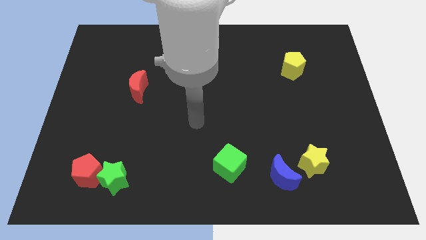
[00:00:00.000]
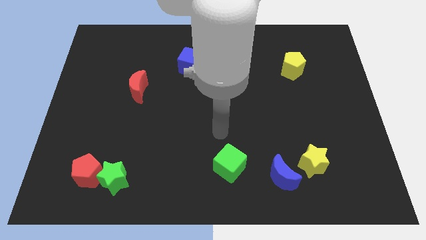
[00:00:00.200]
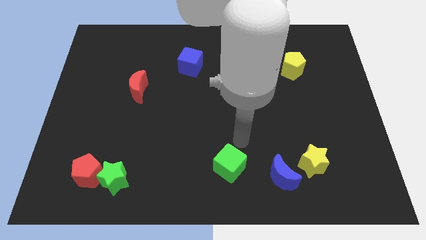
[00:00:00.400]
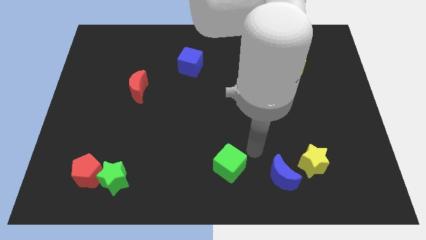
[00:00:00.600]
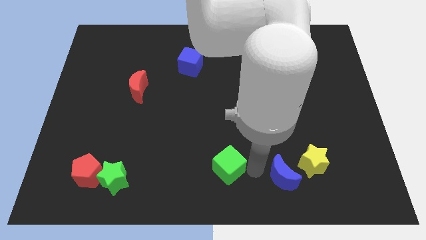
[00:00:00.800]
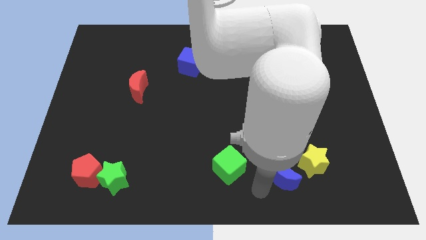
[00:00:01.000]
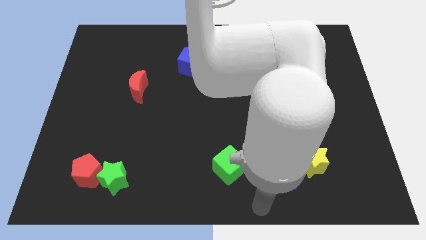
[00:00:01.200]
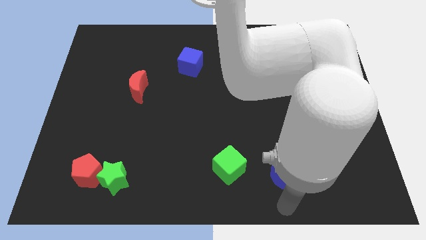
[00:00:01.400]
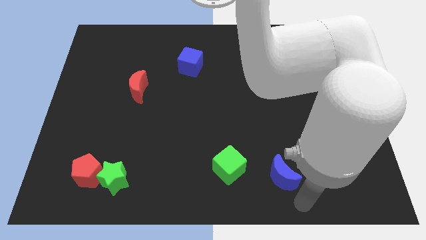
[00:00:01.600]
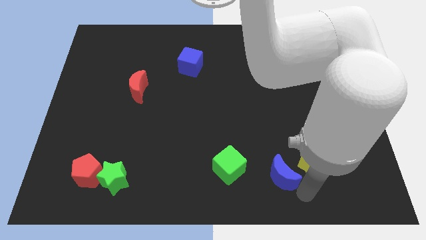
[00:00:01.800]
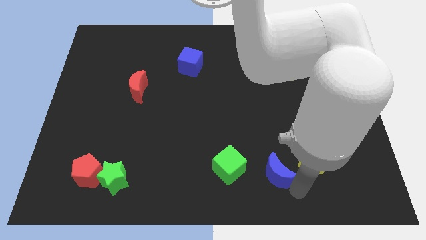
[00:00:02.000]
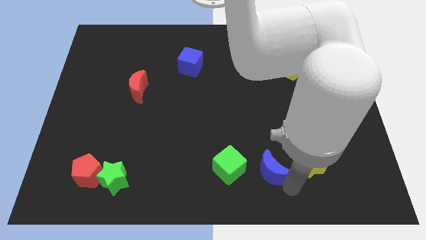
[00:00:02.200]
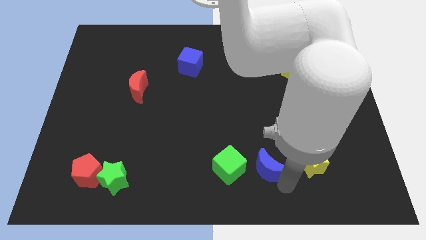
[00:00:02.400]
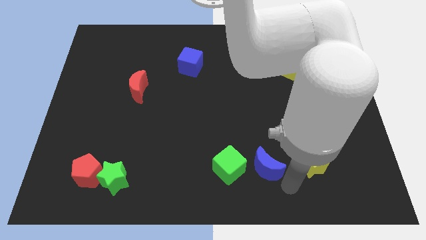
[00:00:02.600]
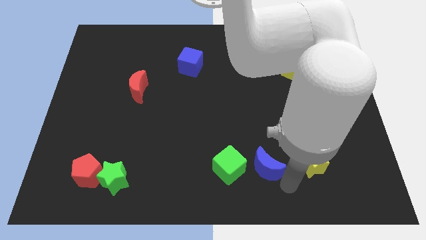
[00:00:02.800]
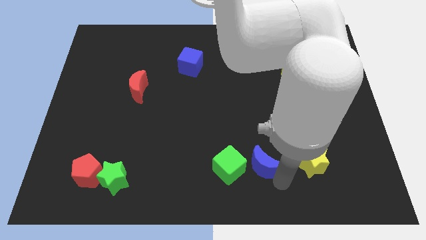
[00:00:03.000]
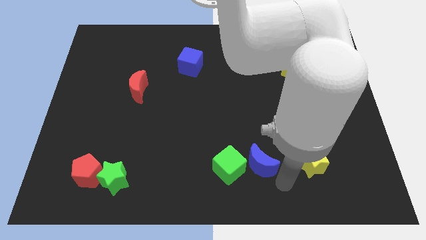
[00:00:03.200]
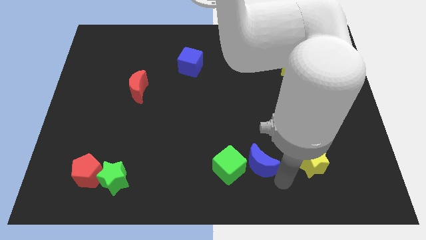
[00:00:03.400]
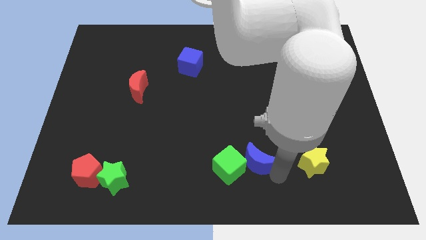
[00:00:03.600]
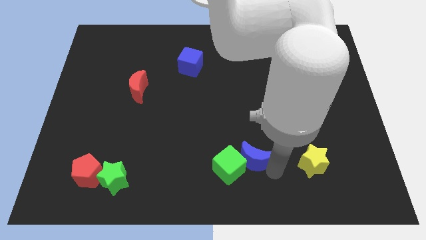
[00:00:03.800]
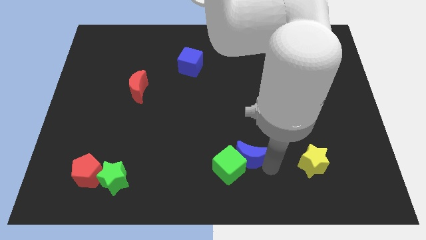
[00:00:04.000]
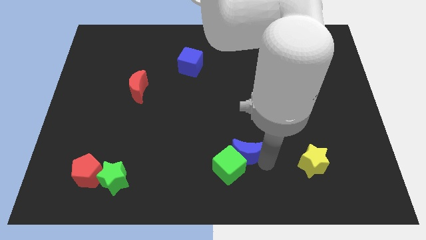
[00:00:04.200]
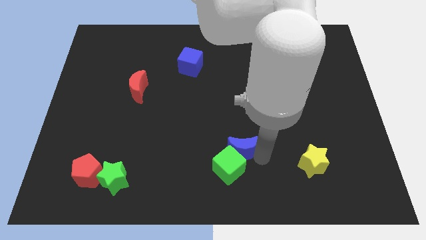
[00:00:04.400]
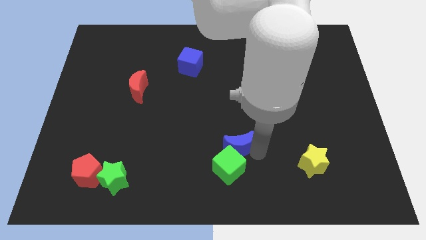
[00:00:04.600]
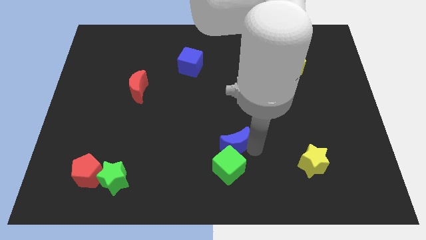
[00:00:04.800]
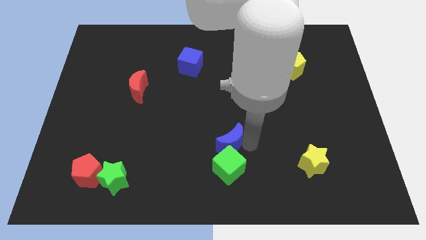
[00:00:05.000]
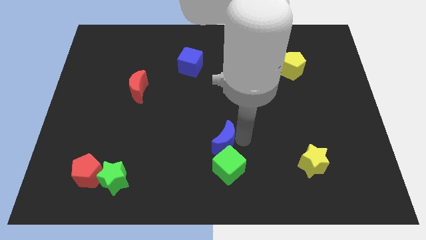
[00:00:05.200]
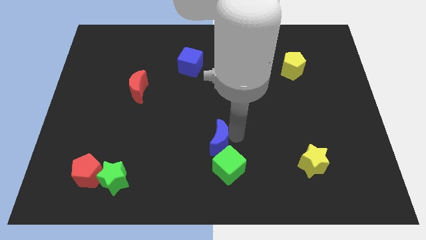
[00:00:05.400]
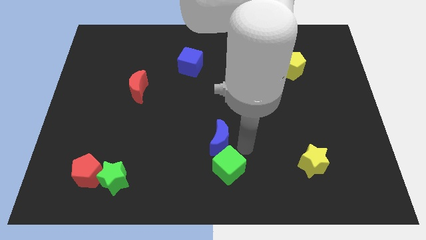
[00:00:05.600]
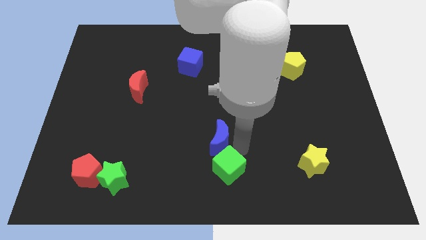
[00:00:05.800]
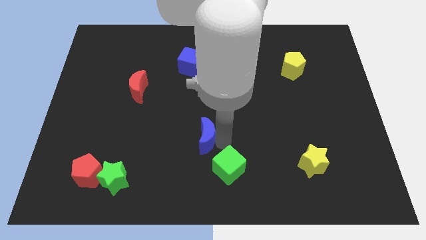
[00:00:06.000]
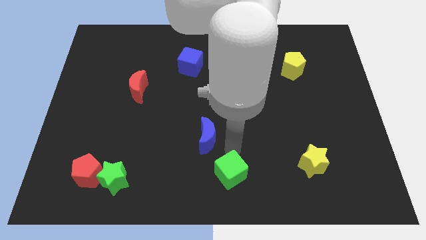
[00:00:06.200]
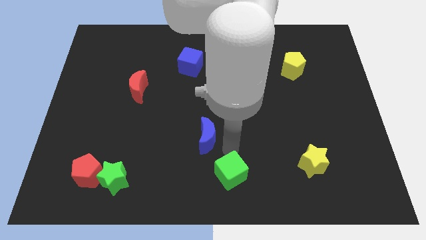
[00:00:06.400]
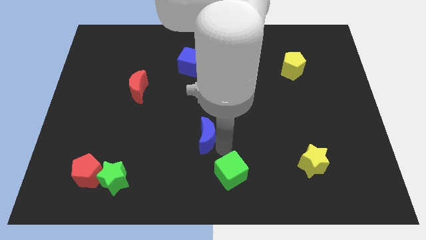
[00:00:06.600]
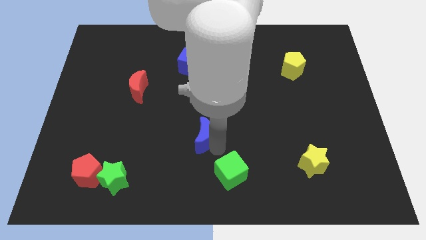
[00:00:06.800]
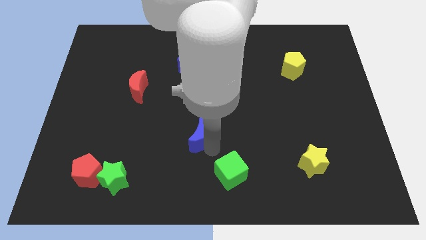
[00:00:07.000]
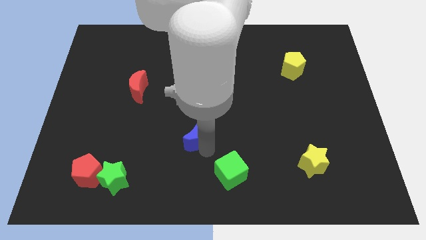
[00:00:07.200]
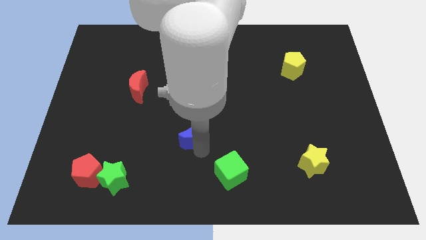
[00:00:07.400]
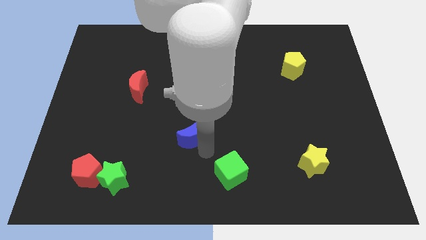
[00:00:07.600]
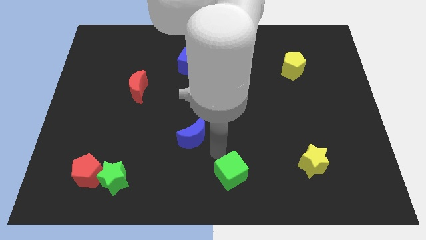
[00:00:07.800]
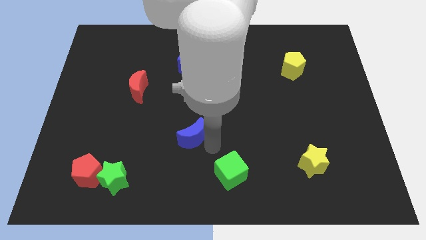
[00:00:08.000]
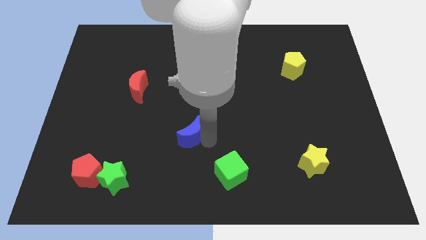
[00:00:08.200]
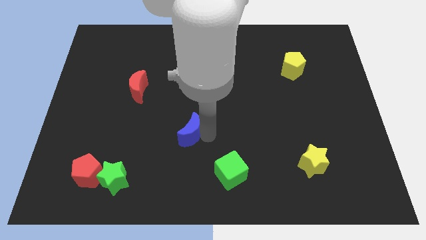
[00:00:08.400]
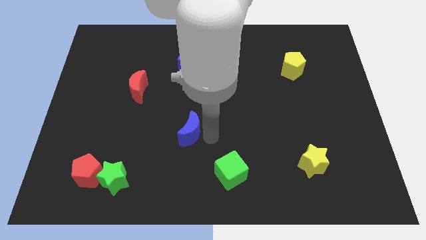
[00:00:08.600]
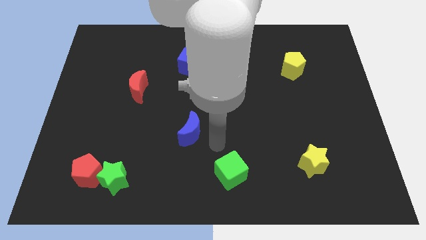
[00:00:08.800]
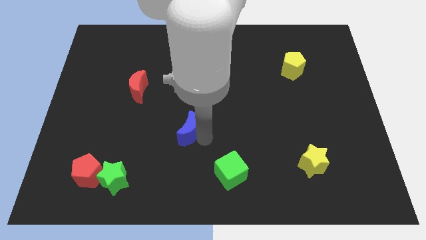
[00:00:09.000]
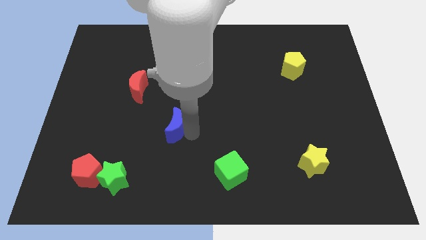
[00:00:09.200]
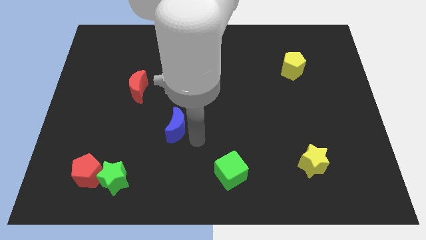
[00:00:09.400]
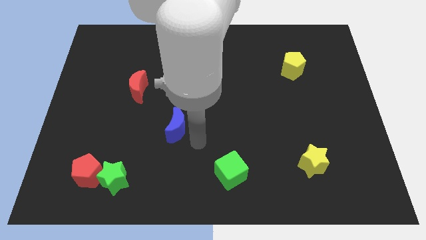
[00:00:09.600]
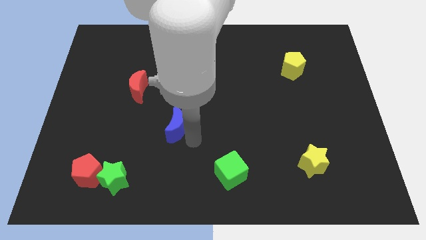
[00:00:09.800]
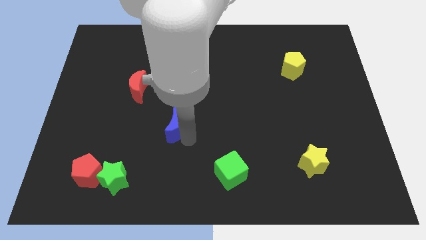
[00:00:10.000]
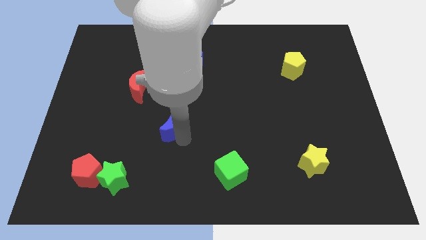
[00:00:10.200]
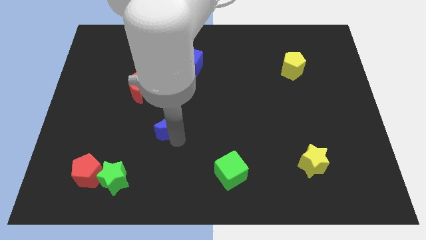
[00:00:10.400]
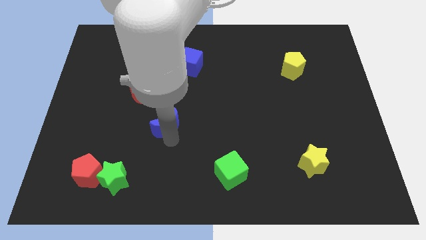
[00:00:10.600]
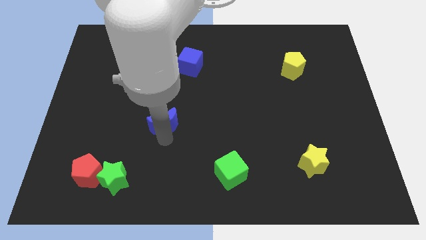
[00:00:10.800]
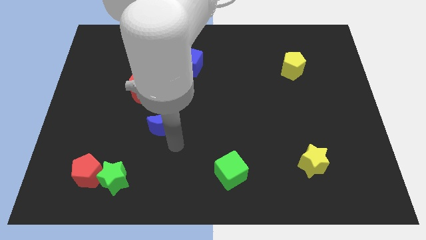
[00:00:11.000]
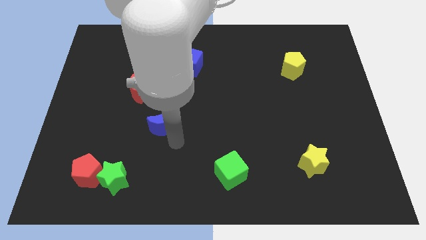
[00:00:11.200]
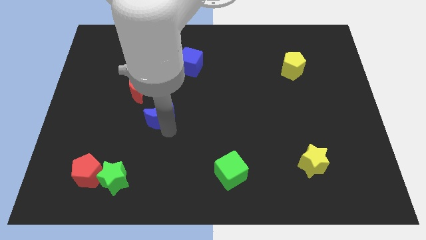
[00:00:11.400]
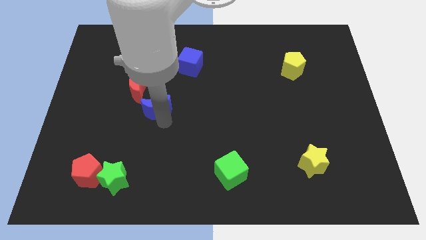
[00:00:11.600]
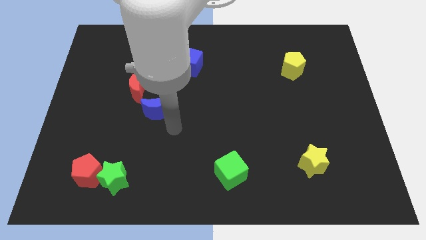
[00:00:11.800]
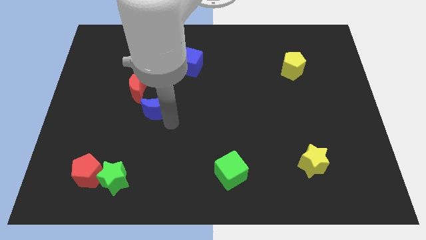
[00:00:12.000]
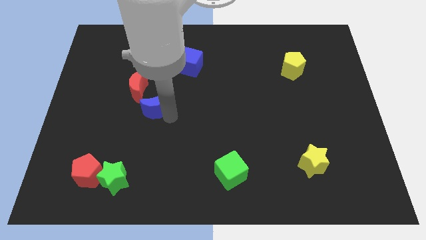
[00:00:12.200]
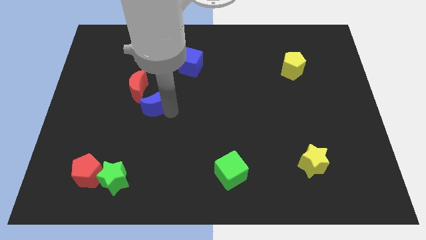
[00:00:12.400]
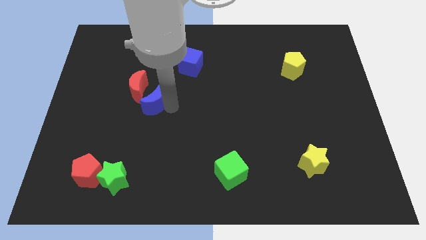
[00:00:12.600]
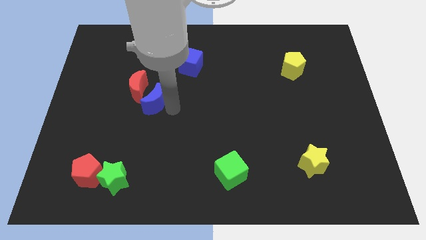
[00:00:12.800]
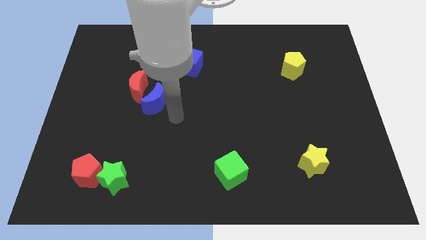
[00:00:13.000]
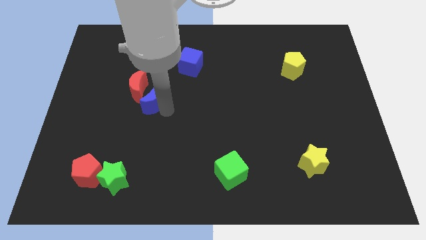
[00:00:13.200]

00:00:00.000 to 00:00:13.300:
push the blue moon next to the red moon

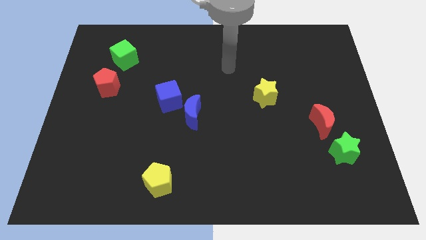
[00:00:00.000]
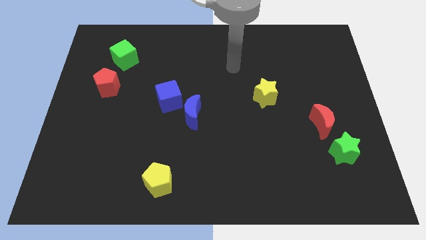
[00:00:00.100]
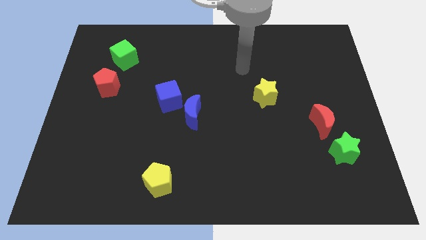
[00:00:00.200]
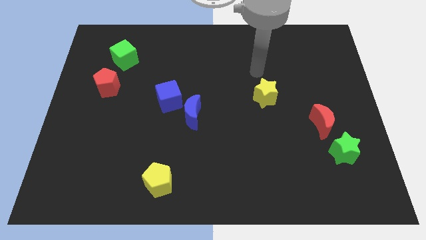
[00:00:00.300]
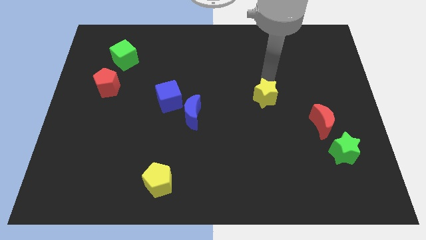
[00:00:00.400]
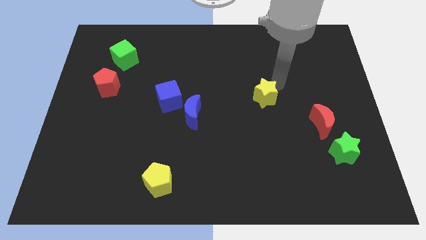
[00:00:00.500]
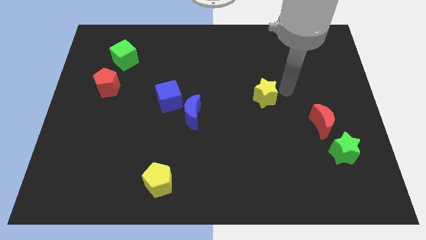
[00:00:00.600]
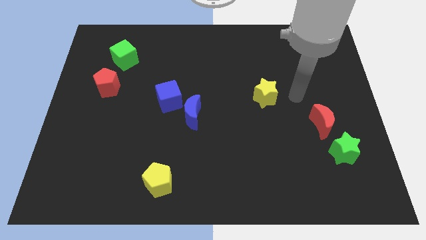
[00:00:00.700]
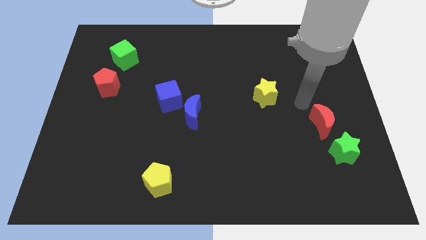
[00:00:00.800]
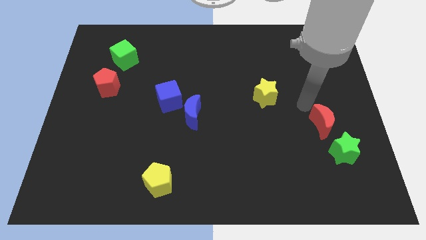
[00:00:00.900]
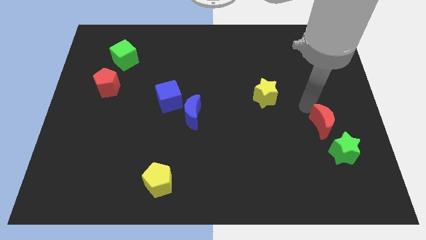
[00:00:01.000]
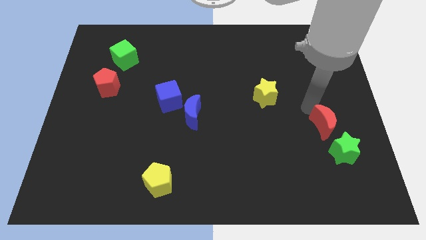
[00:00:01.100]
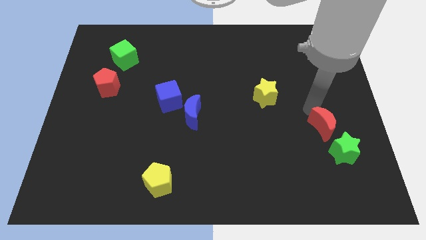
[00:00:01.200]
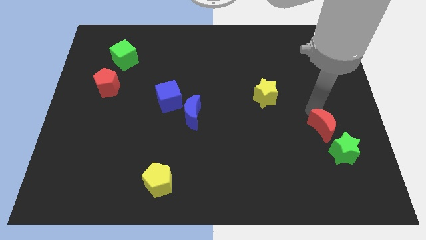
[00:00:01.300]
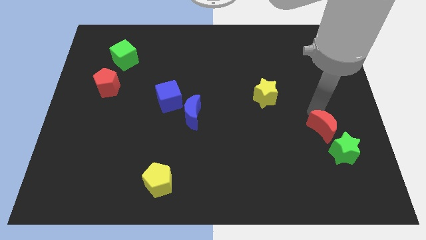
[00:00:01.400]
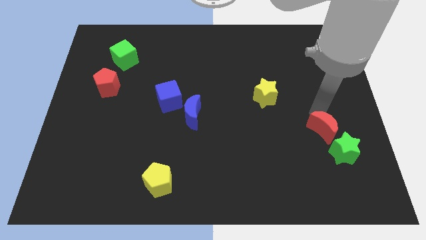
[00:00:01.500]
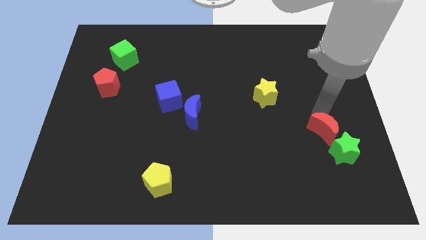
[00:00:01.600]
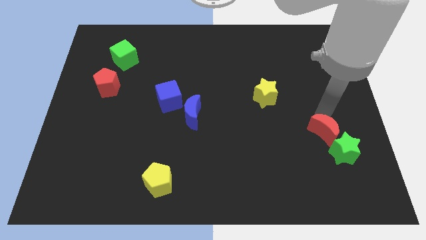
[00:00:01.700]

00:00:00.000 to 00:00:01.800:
push the red moon next to the green star
